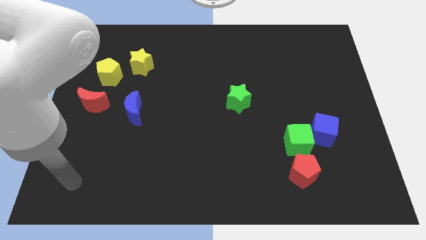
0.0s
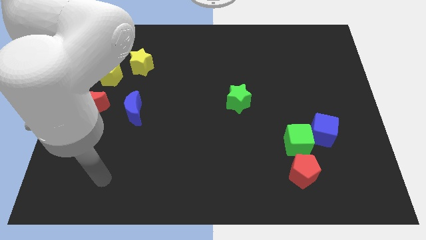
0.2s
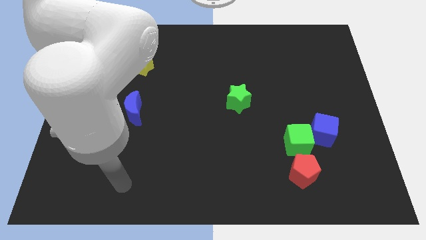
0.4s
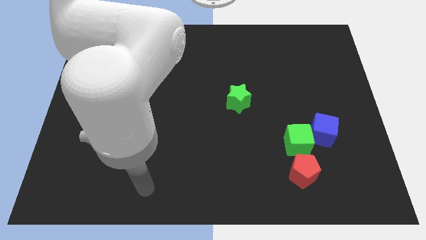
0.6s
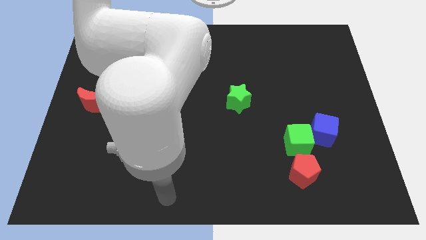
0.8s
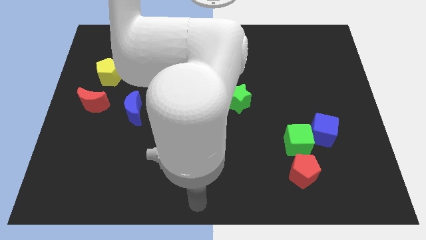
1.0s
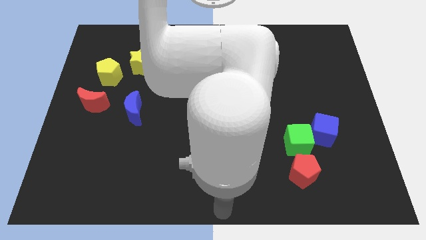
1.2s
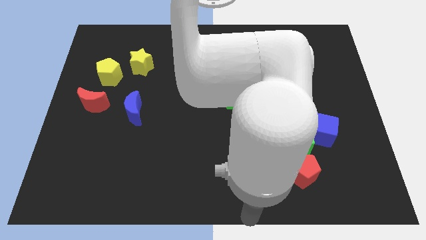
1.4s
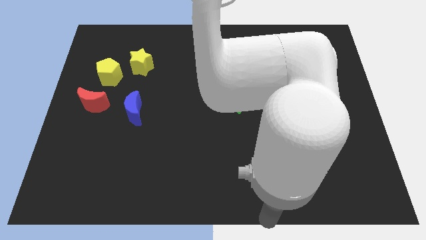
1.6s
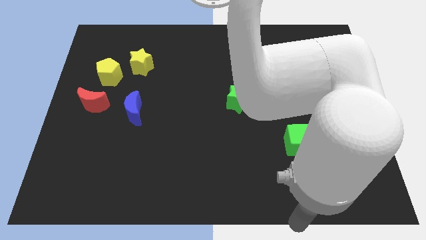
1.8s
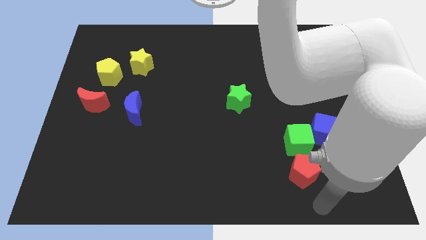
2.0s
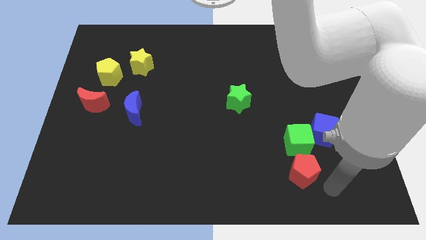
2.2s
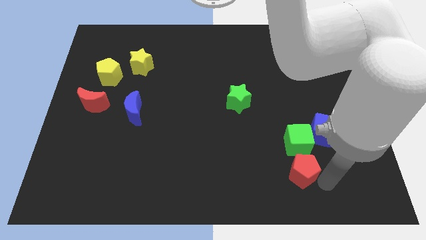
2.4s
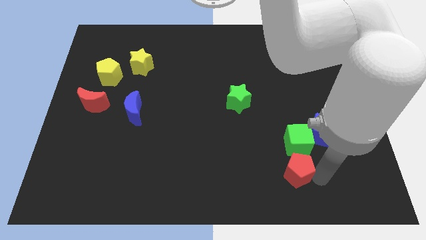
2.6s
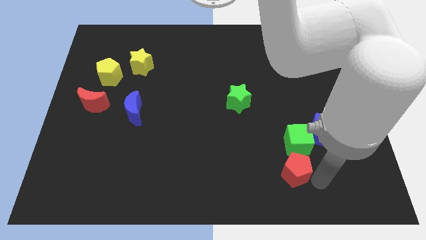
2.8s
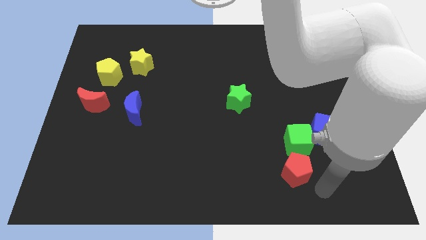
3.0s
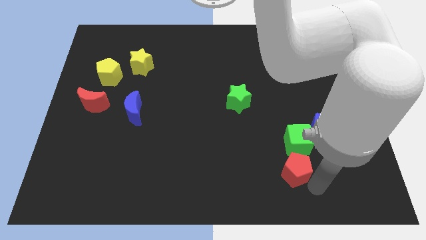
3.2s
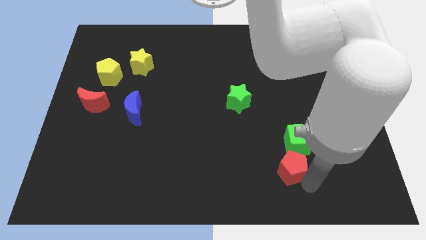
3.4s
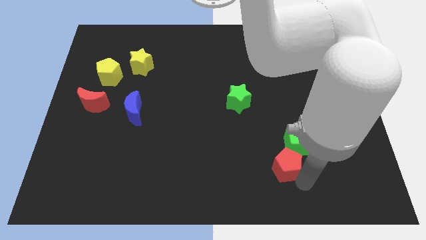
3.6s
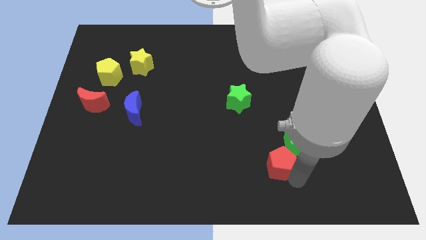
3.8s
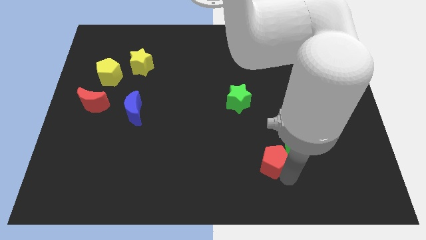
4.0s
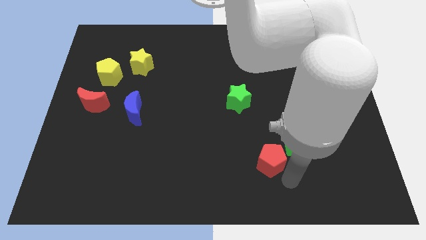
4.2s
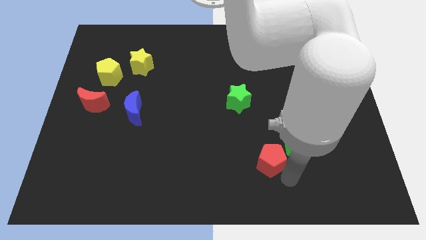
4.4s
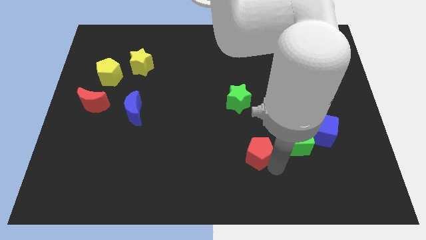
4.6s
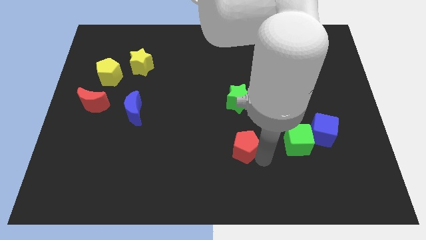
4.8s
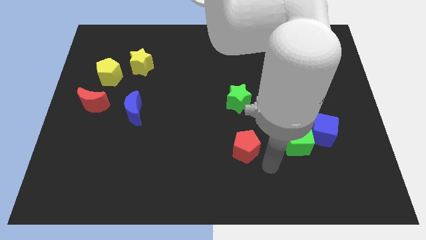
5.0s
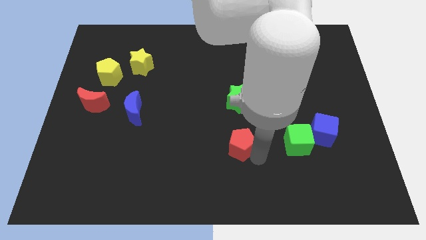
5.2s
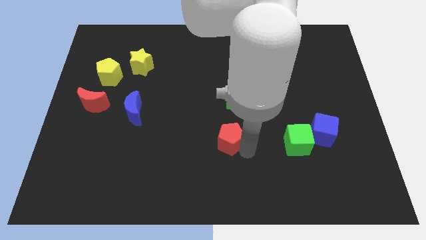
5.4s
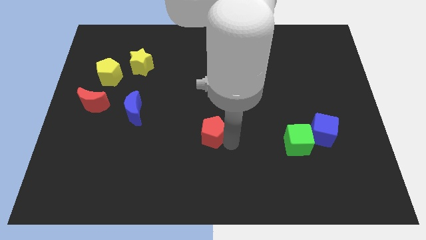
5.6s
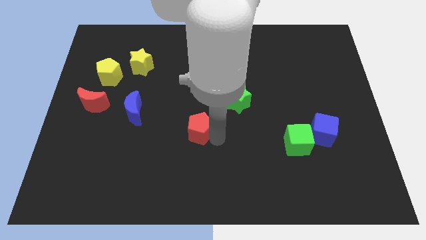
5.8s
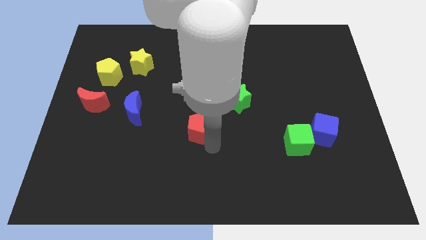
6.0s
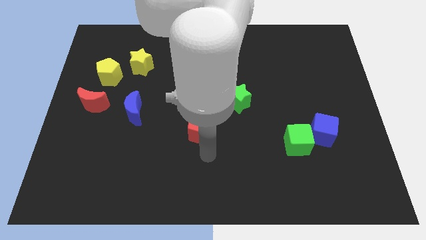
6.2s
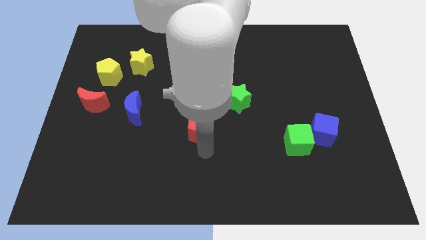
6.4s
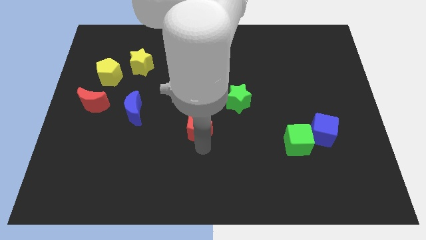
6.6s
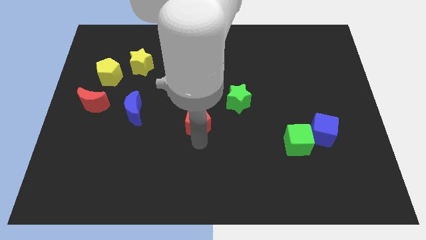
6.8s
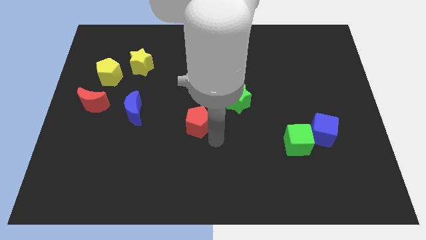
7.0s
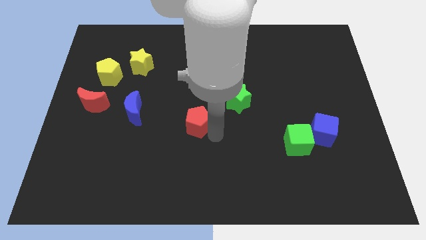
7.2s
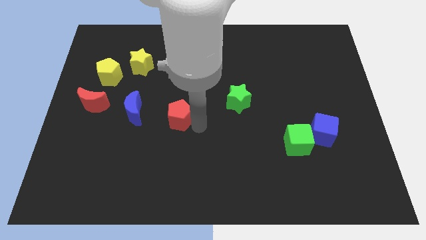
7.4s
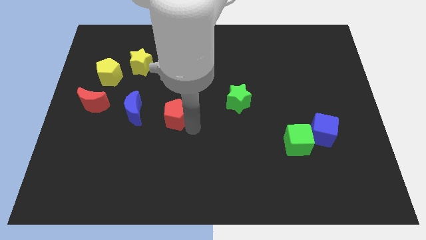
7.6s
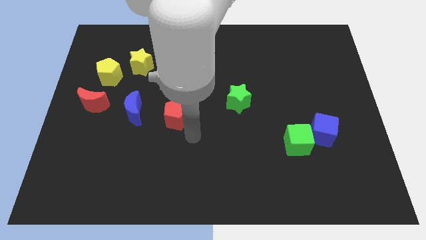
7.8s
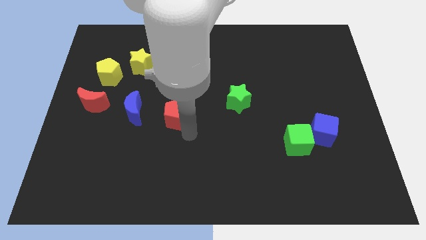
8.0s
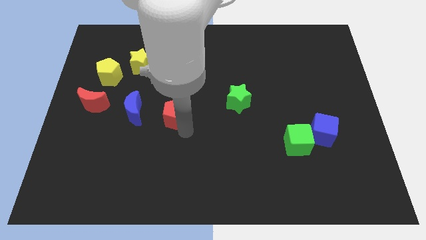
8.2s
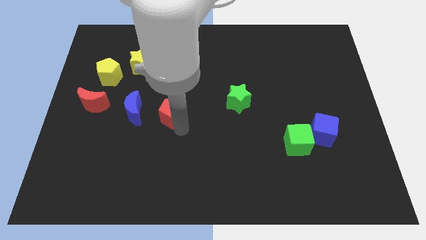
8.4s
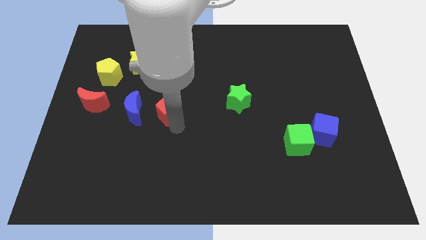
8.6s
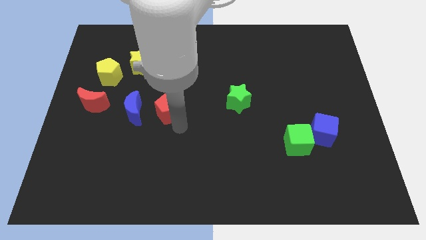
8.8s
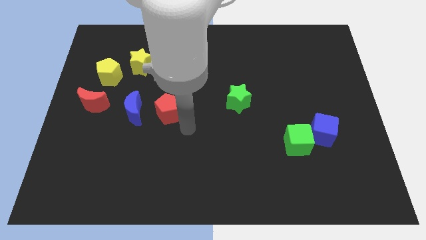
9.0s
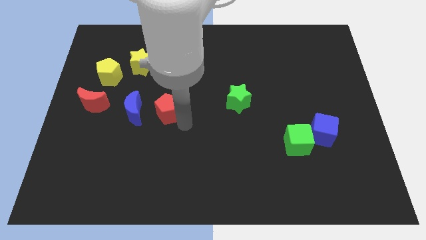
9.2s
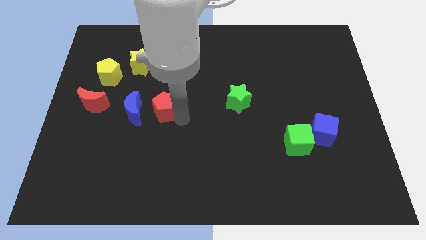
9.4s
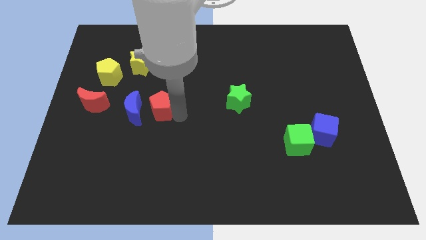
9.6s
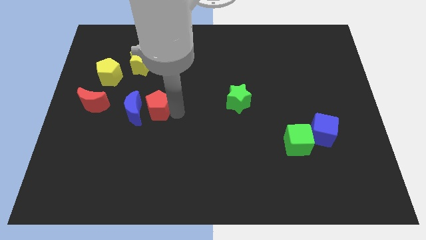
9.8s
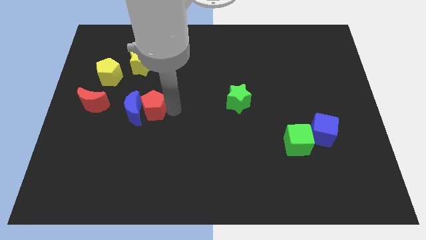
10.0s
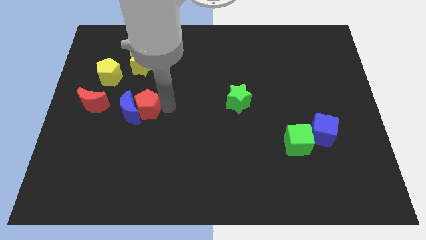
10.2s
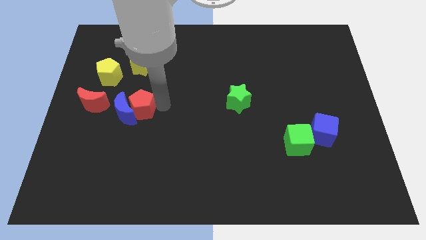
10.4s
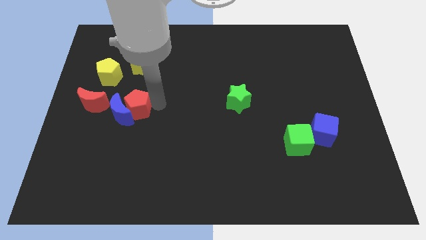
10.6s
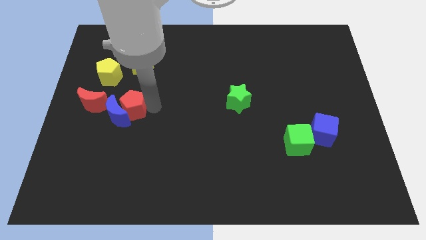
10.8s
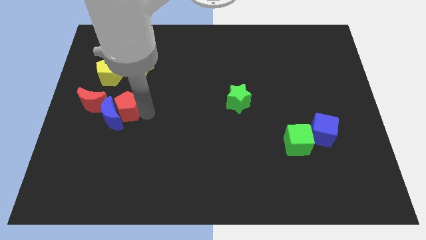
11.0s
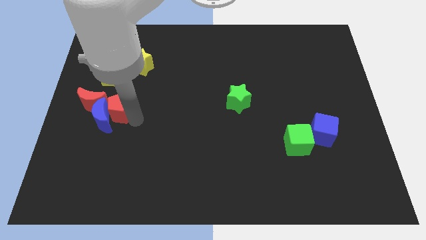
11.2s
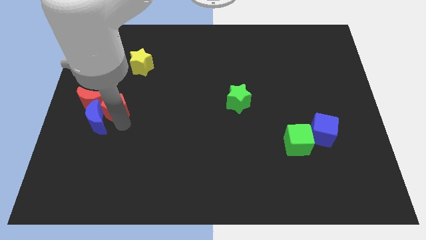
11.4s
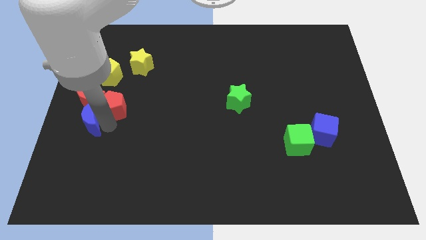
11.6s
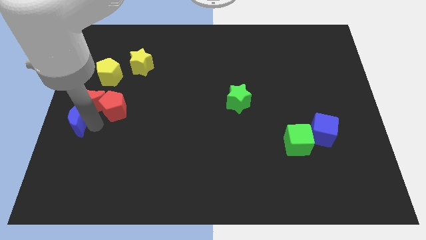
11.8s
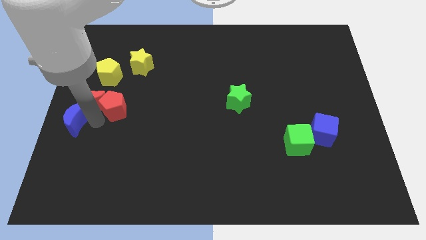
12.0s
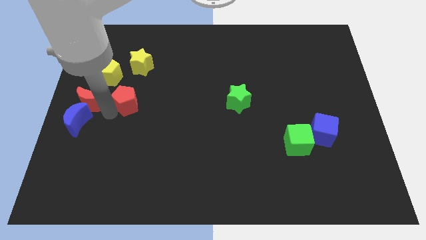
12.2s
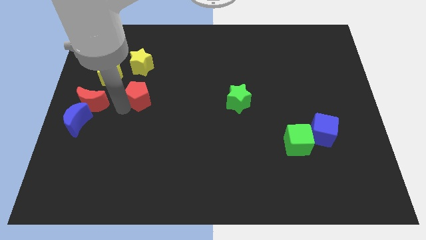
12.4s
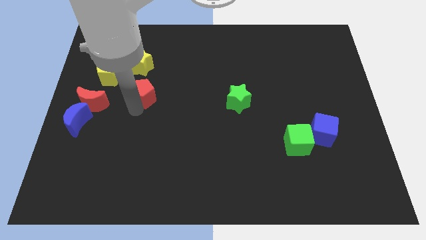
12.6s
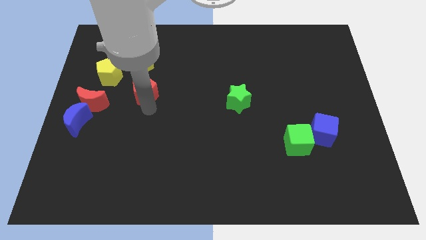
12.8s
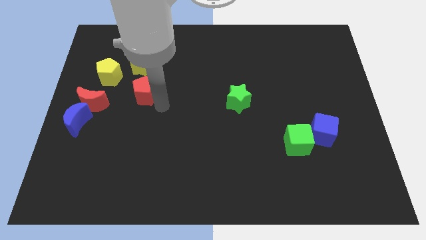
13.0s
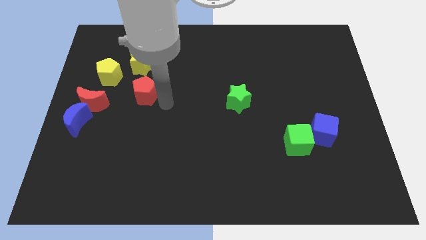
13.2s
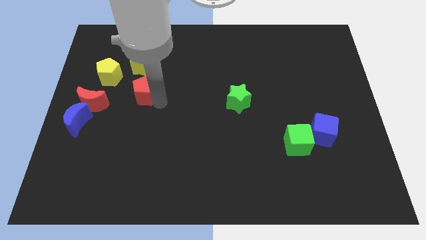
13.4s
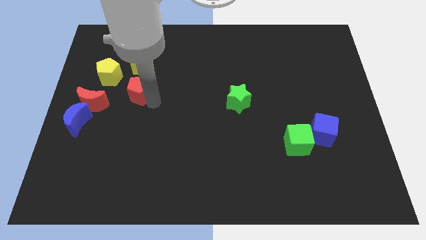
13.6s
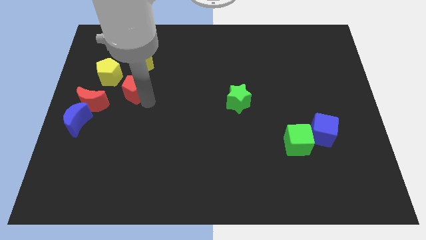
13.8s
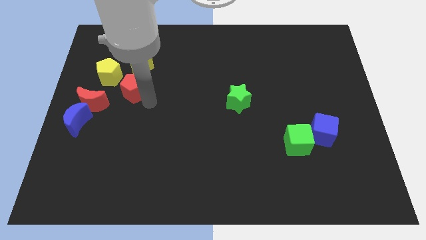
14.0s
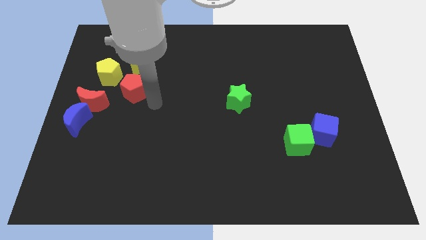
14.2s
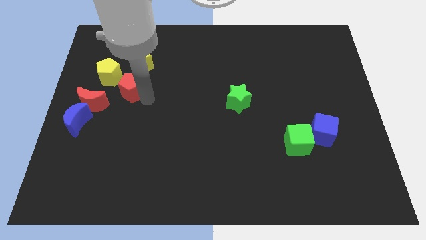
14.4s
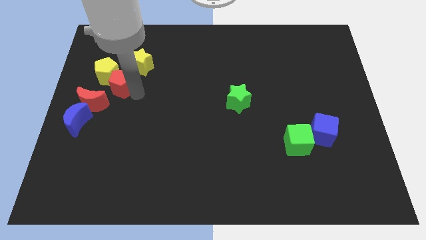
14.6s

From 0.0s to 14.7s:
put the red pentagon towards the yellow pentagon

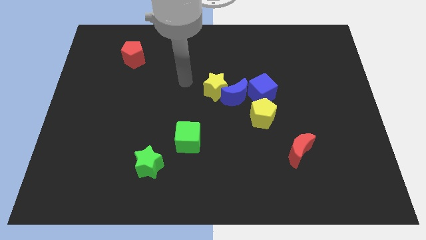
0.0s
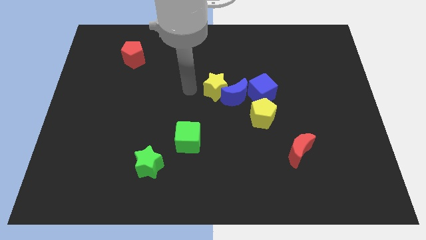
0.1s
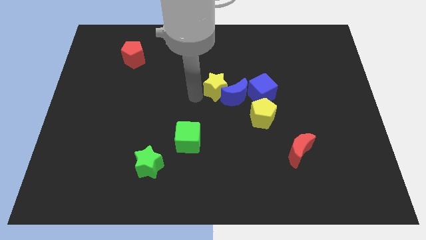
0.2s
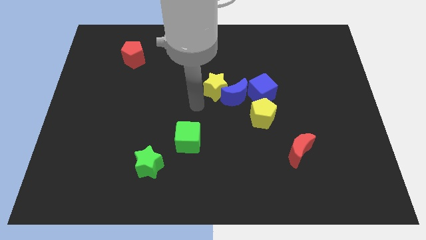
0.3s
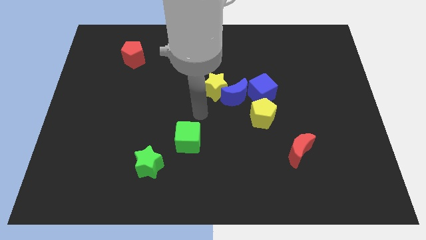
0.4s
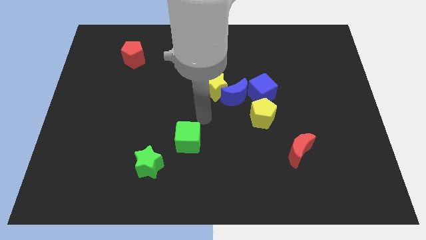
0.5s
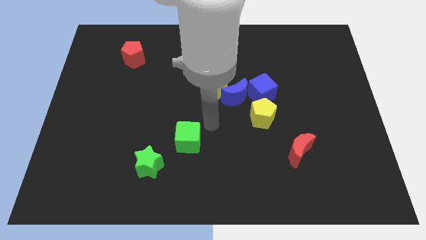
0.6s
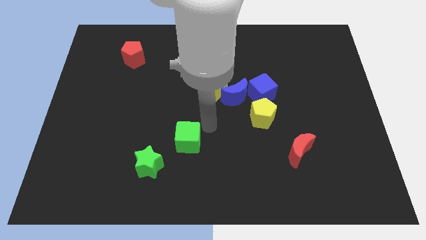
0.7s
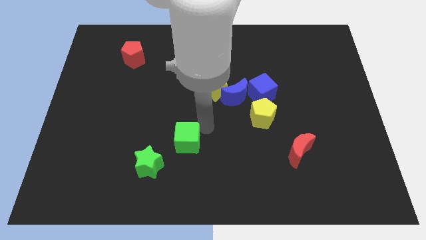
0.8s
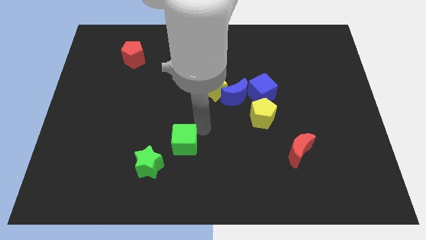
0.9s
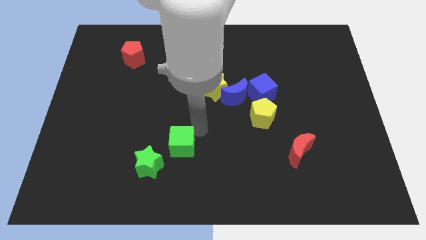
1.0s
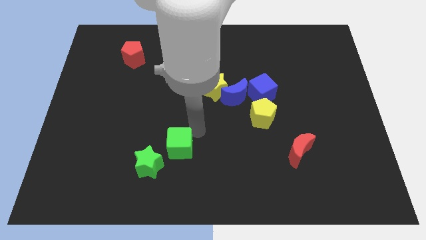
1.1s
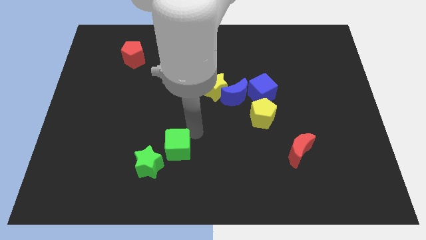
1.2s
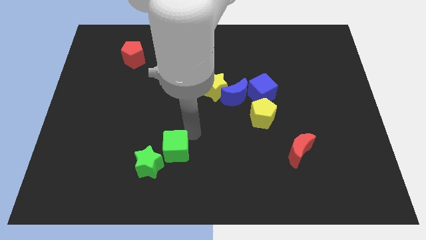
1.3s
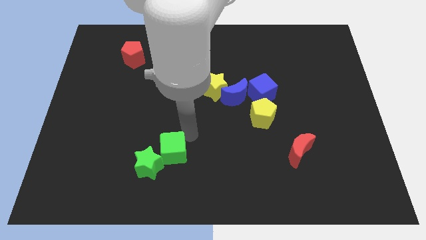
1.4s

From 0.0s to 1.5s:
put the green cube towards the green star
